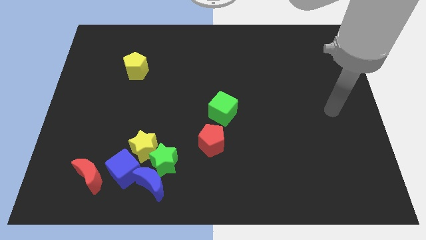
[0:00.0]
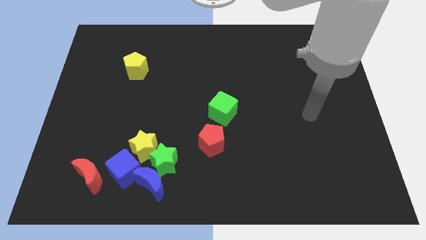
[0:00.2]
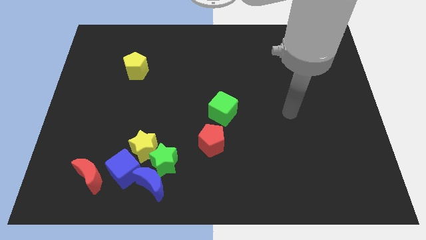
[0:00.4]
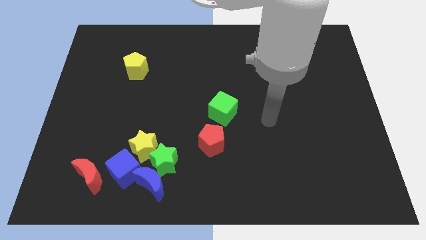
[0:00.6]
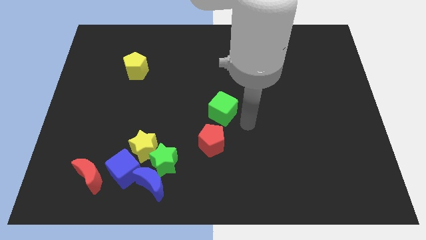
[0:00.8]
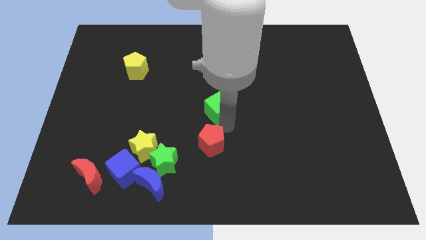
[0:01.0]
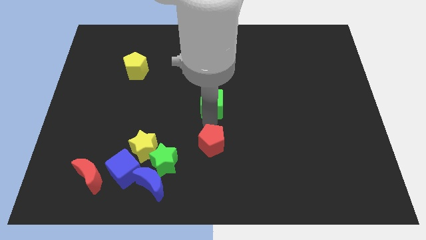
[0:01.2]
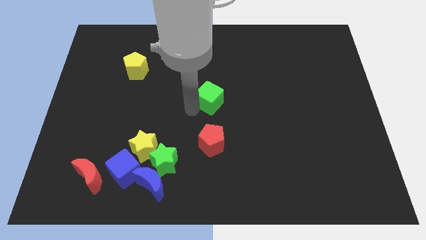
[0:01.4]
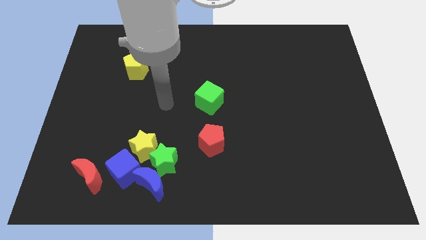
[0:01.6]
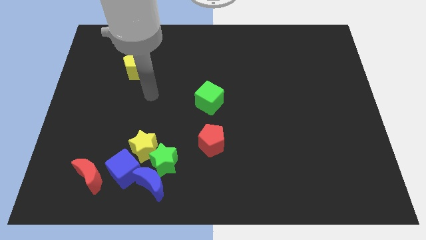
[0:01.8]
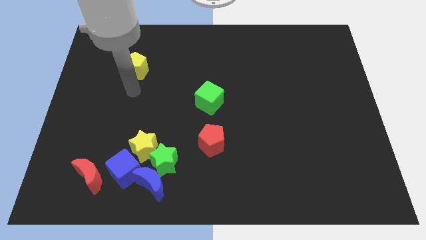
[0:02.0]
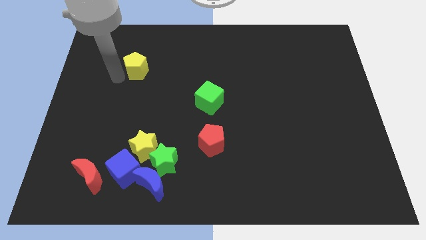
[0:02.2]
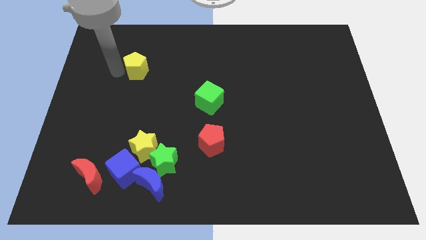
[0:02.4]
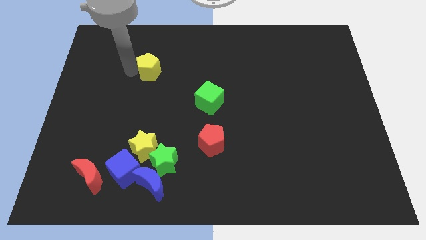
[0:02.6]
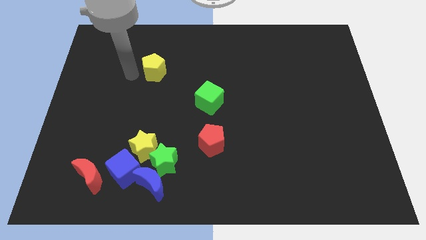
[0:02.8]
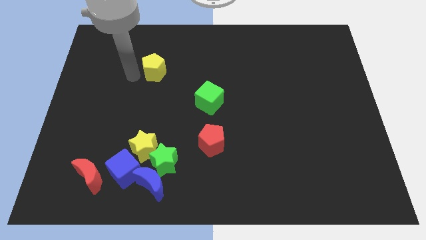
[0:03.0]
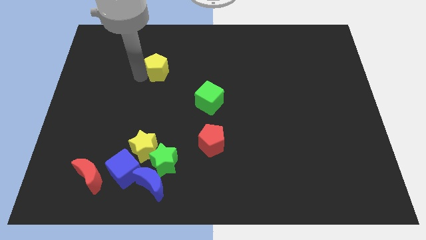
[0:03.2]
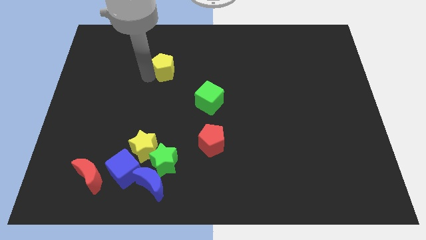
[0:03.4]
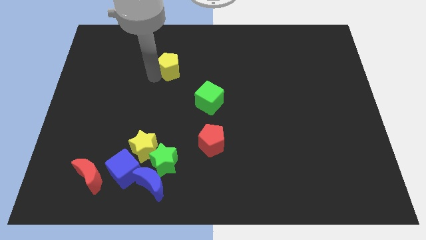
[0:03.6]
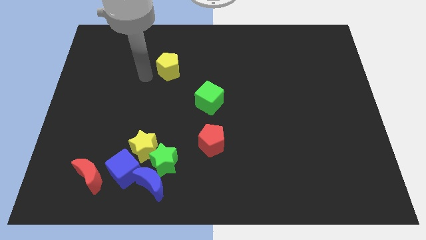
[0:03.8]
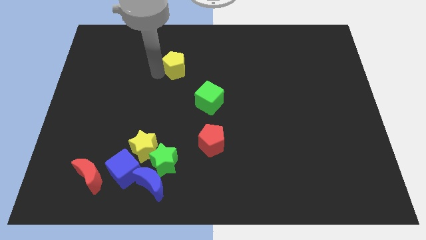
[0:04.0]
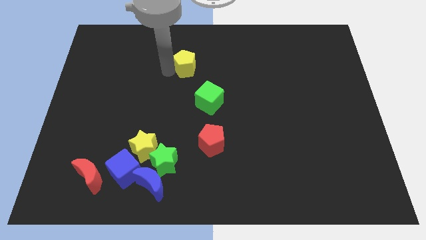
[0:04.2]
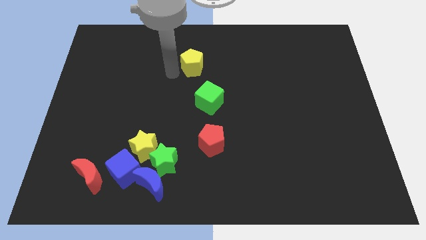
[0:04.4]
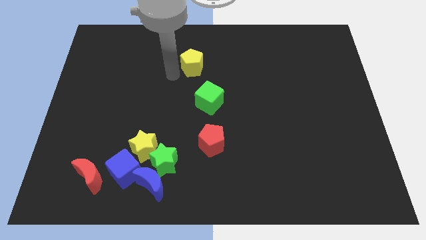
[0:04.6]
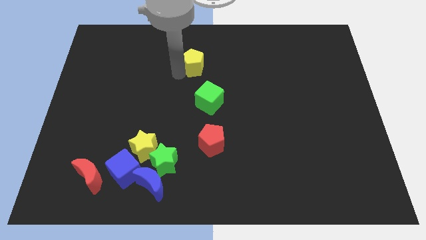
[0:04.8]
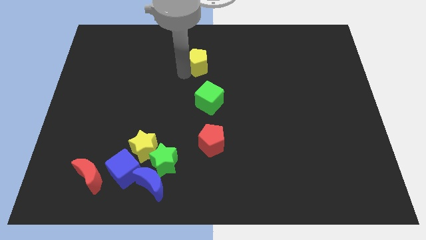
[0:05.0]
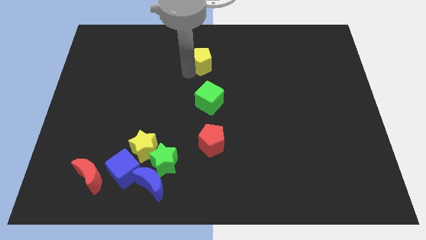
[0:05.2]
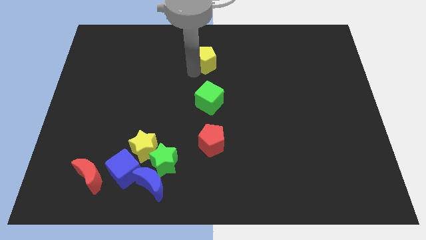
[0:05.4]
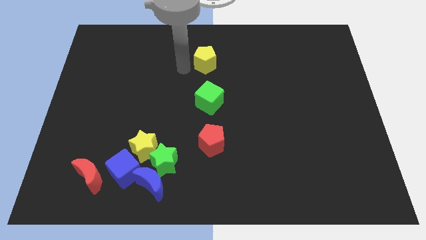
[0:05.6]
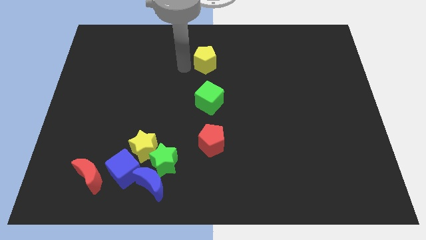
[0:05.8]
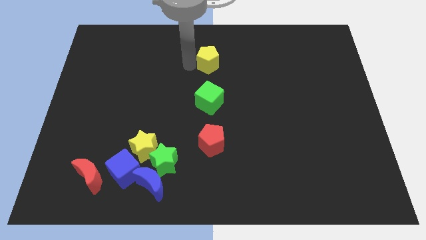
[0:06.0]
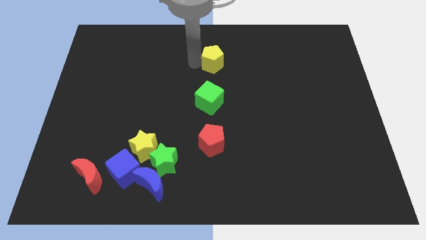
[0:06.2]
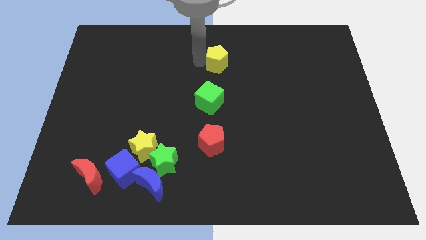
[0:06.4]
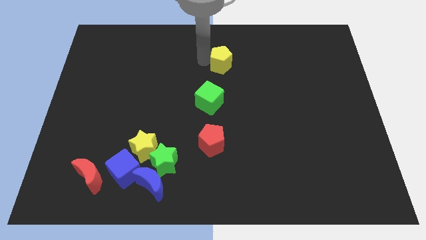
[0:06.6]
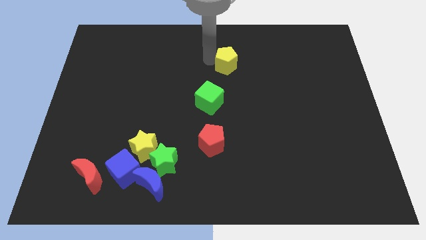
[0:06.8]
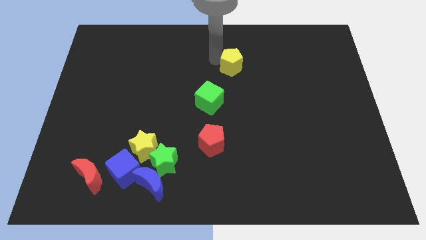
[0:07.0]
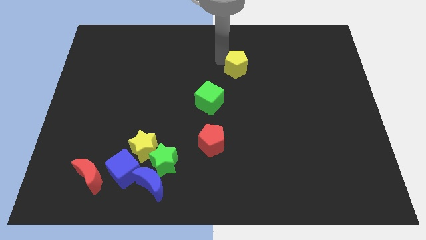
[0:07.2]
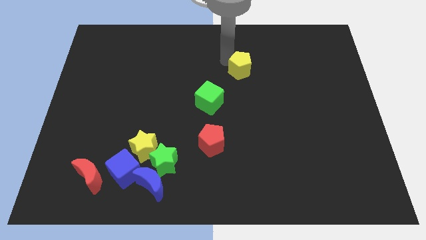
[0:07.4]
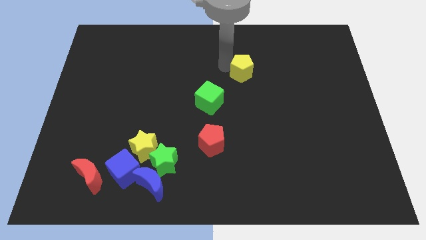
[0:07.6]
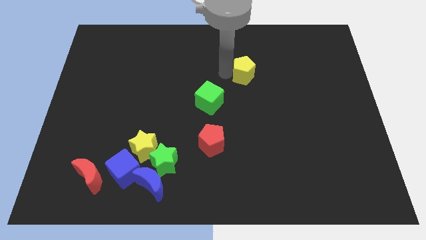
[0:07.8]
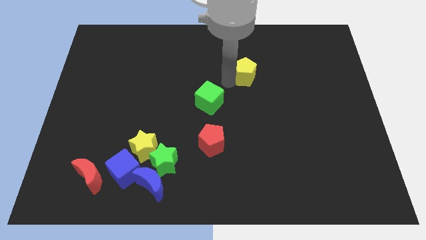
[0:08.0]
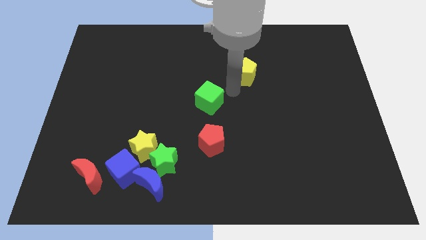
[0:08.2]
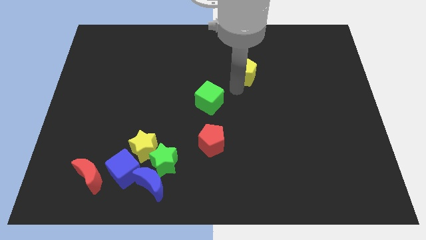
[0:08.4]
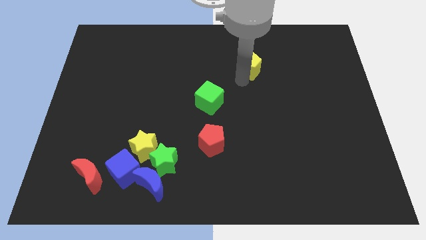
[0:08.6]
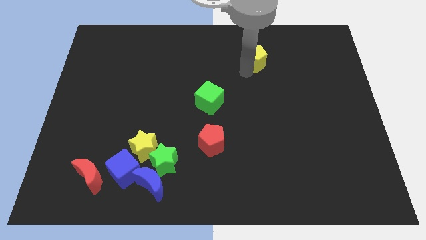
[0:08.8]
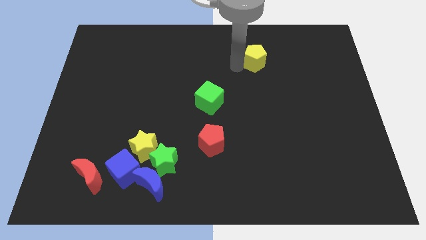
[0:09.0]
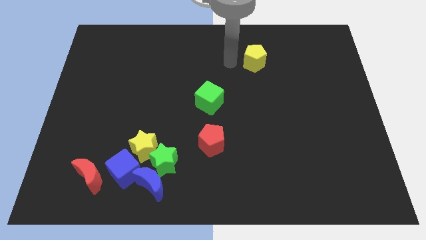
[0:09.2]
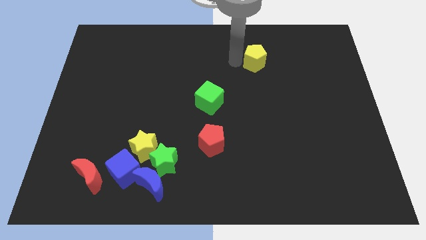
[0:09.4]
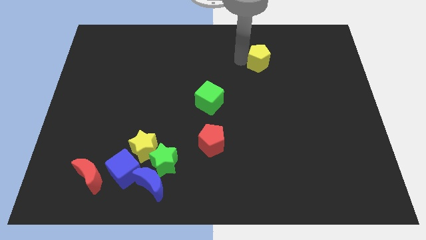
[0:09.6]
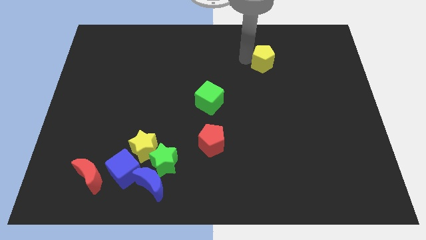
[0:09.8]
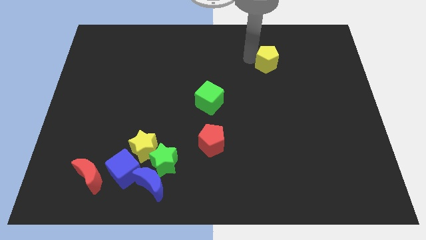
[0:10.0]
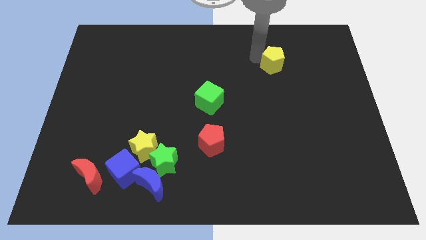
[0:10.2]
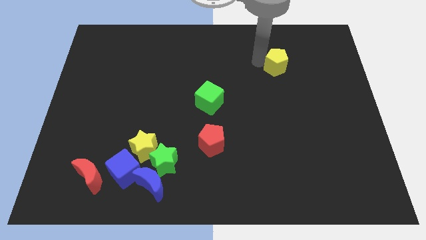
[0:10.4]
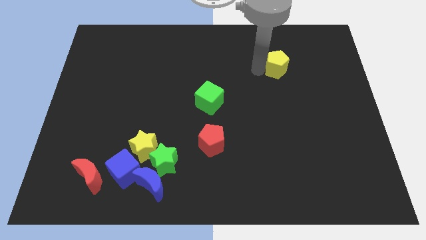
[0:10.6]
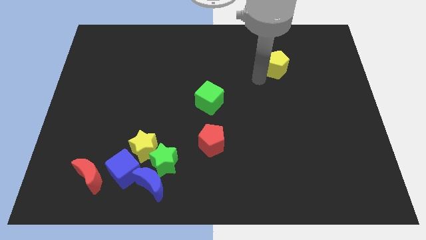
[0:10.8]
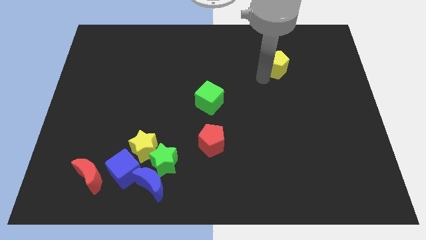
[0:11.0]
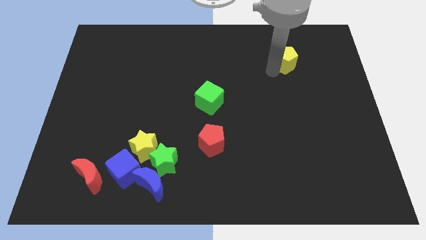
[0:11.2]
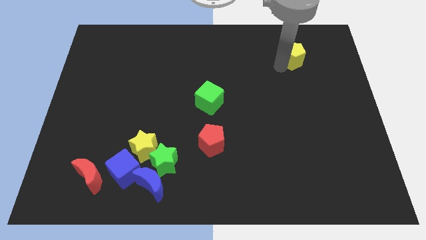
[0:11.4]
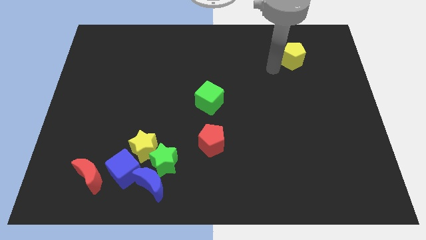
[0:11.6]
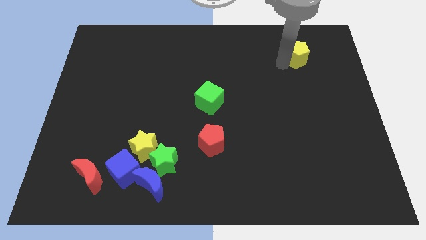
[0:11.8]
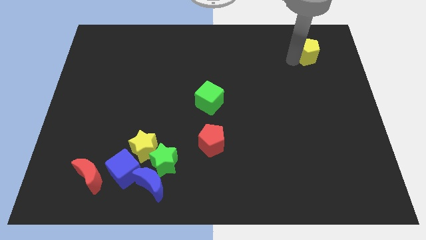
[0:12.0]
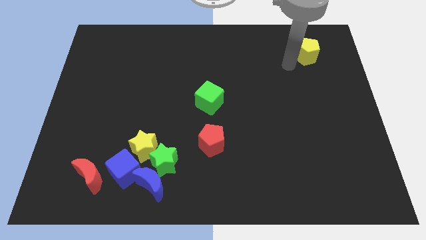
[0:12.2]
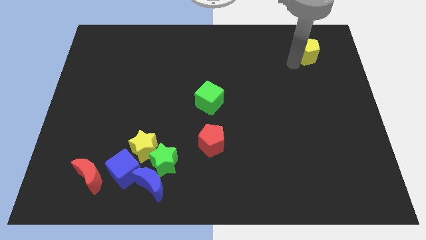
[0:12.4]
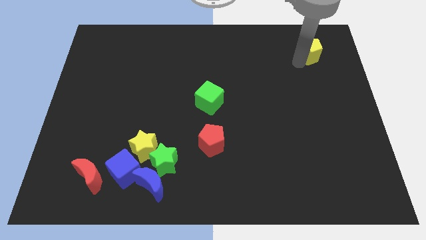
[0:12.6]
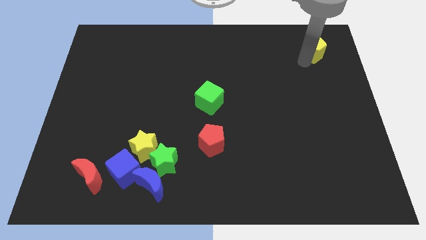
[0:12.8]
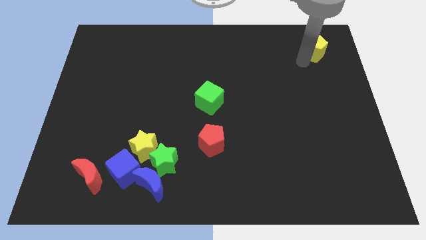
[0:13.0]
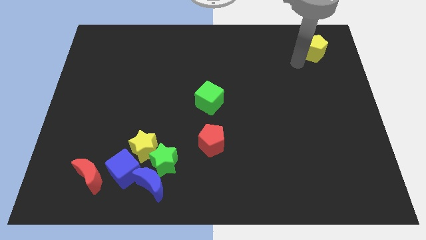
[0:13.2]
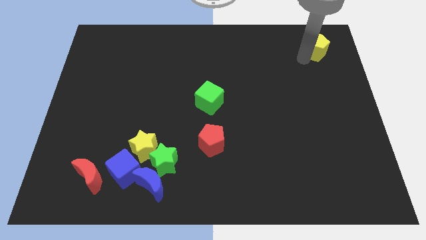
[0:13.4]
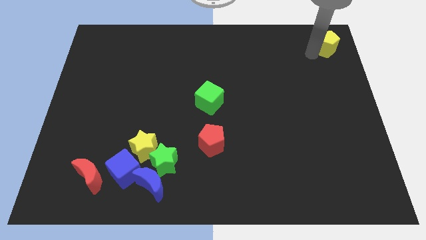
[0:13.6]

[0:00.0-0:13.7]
move the yellow pentagon to the top right of the board
